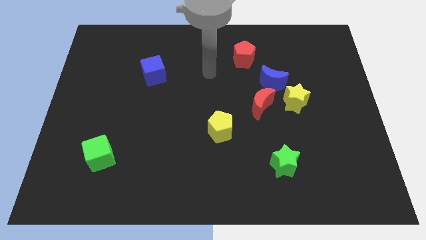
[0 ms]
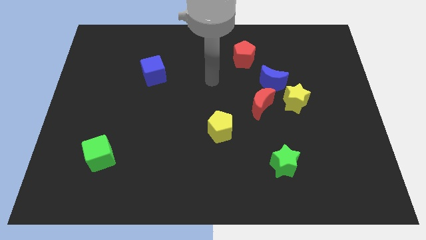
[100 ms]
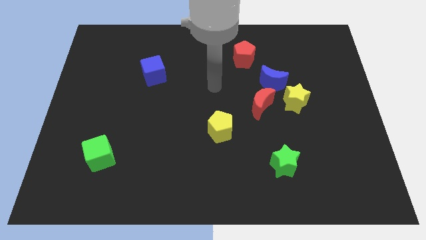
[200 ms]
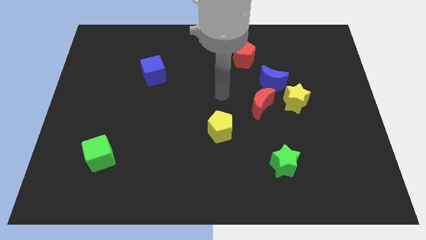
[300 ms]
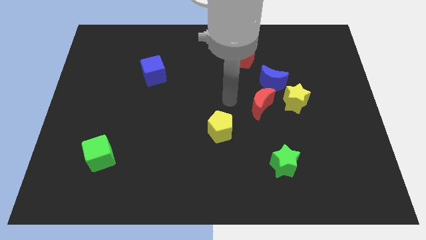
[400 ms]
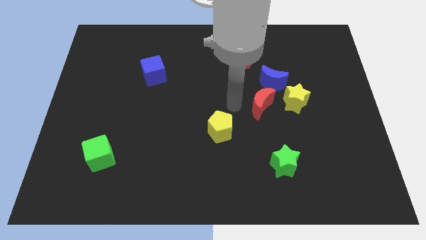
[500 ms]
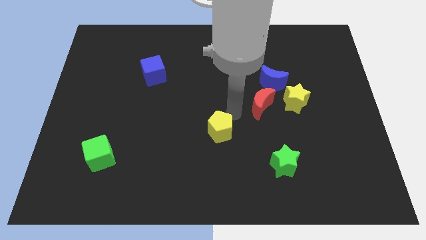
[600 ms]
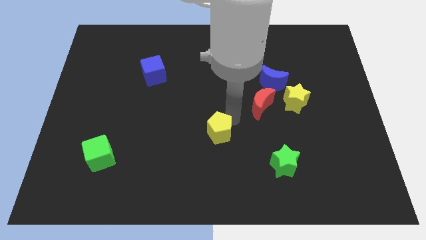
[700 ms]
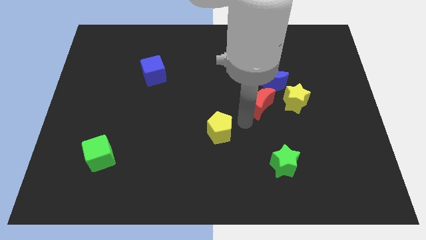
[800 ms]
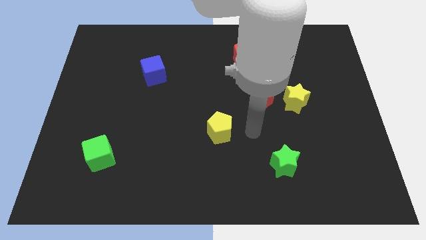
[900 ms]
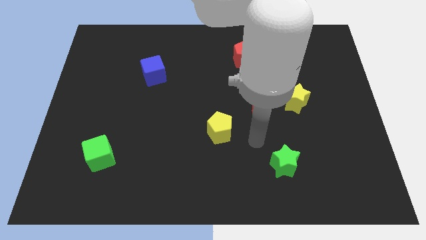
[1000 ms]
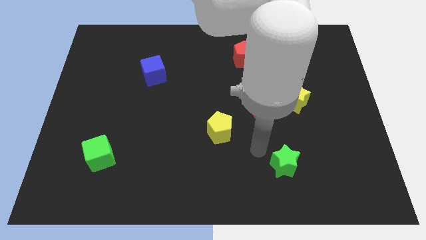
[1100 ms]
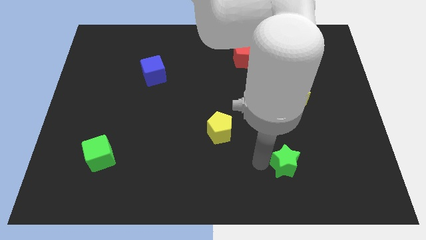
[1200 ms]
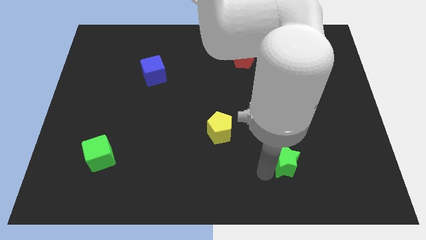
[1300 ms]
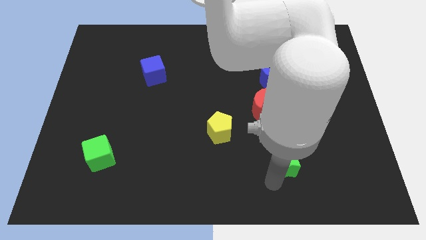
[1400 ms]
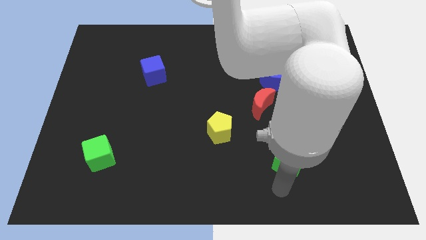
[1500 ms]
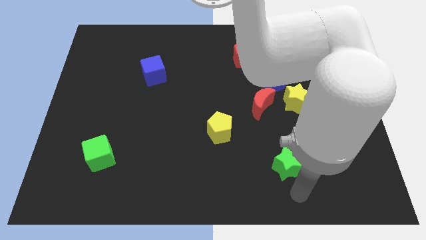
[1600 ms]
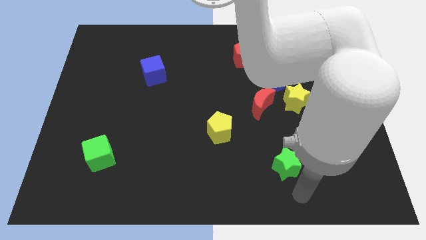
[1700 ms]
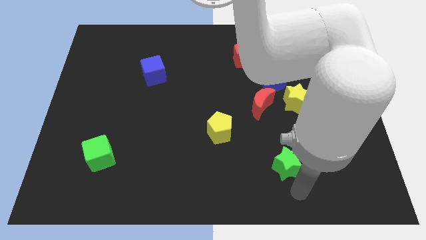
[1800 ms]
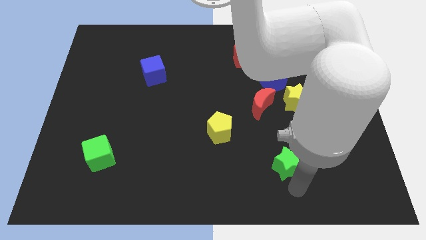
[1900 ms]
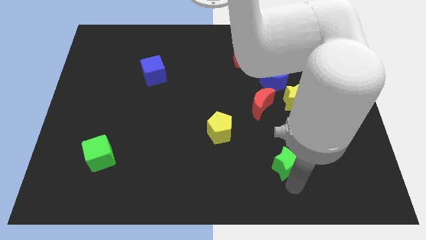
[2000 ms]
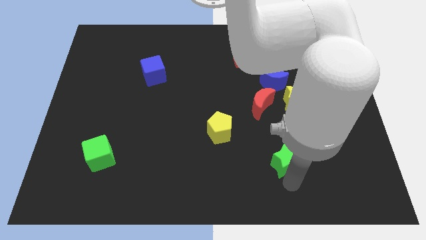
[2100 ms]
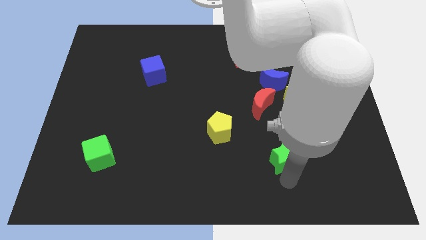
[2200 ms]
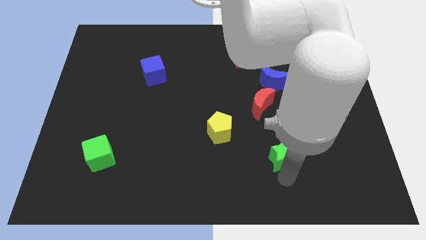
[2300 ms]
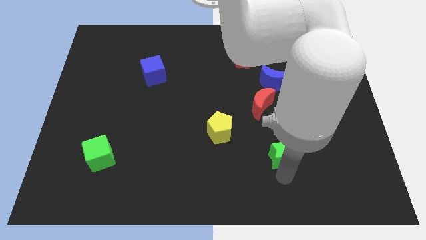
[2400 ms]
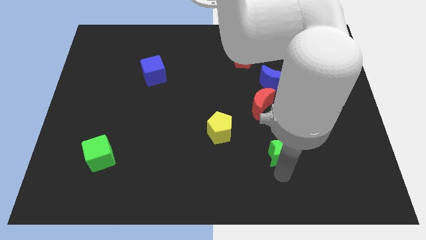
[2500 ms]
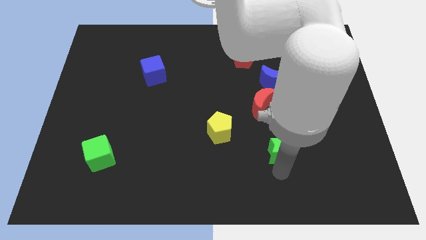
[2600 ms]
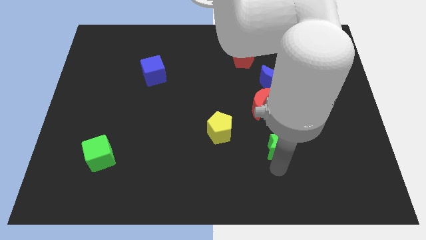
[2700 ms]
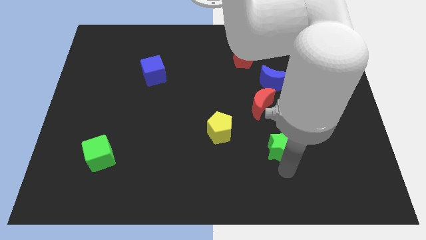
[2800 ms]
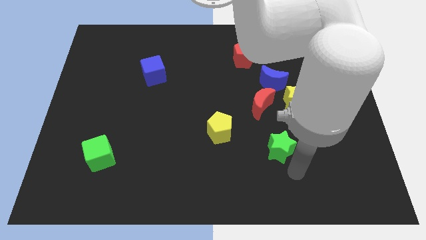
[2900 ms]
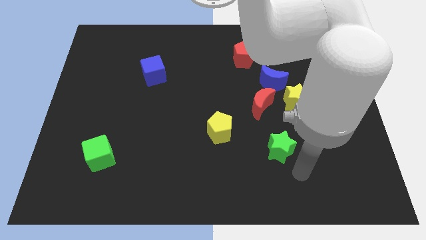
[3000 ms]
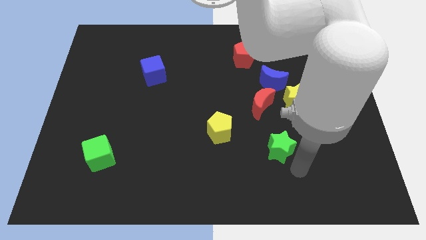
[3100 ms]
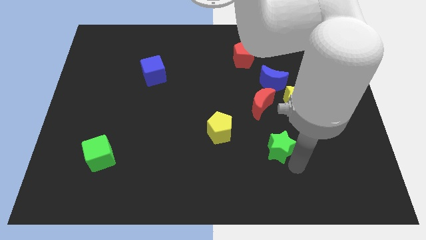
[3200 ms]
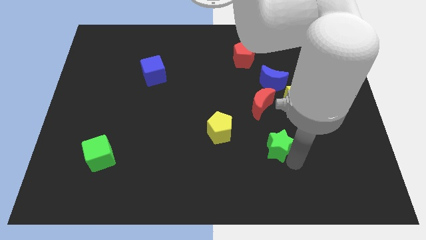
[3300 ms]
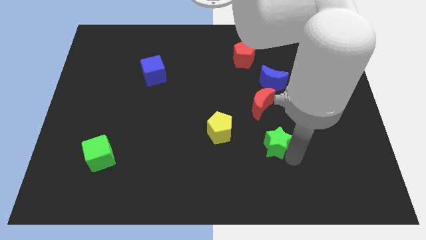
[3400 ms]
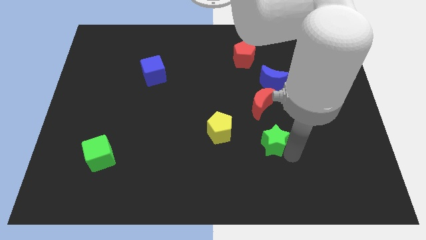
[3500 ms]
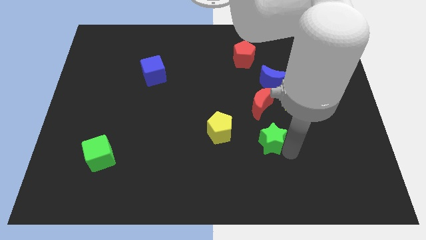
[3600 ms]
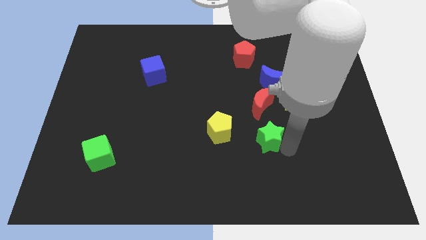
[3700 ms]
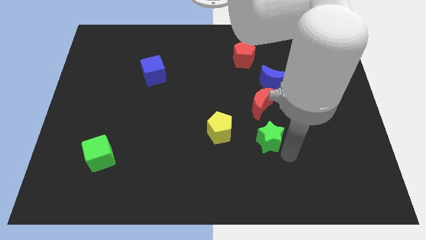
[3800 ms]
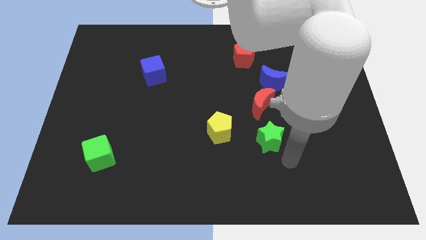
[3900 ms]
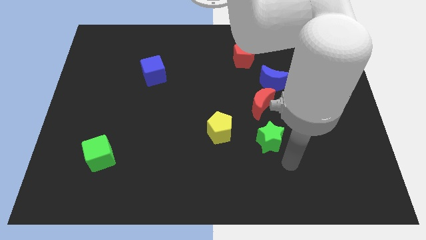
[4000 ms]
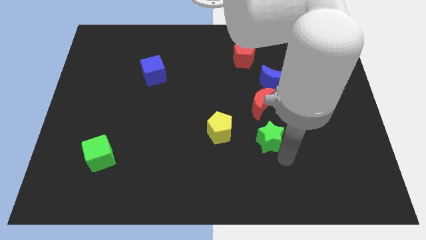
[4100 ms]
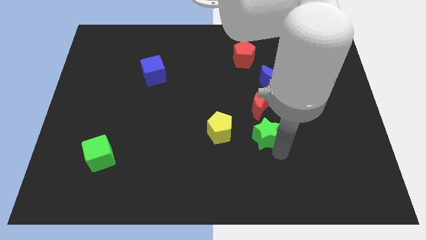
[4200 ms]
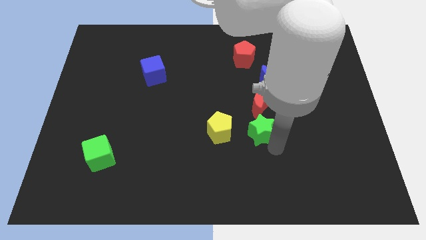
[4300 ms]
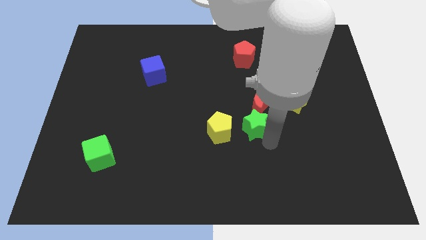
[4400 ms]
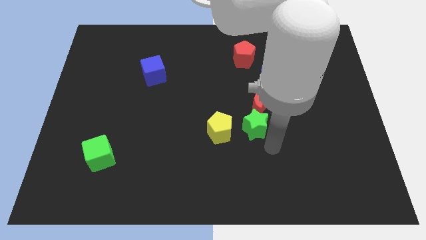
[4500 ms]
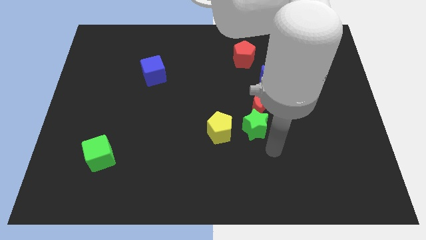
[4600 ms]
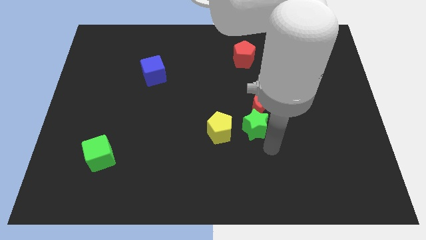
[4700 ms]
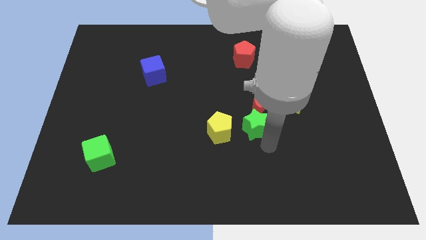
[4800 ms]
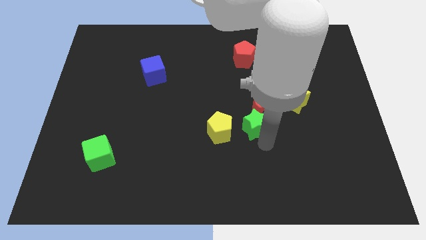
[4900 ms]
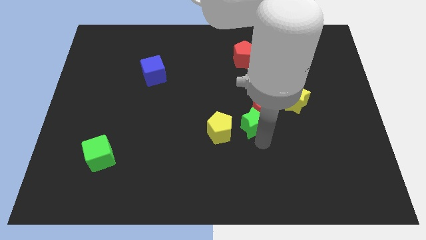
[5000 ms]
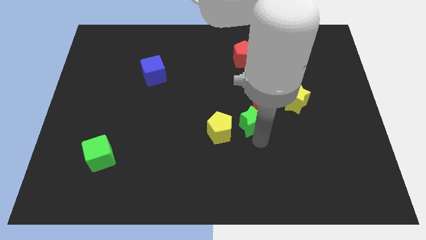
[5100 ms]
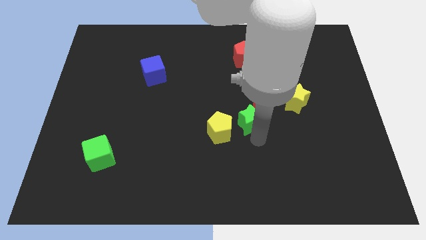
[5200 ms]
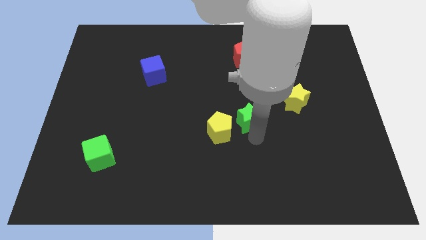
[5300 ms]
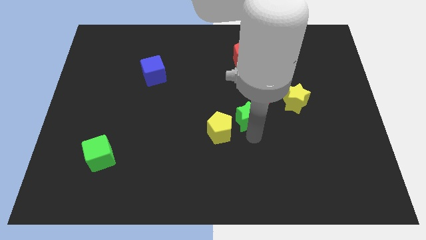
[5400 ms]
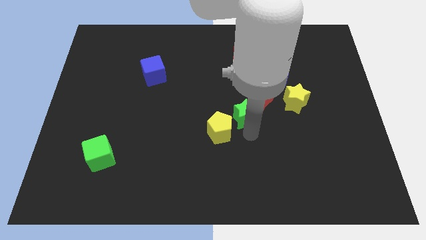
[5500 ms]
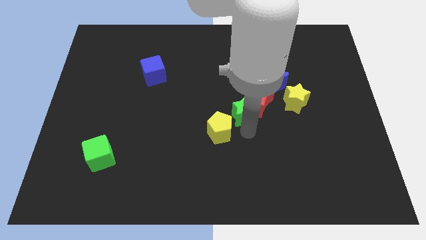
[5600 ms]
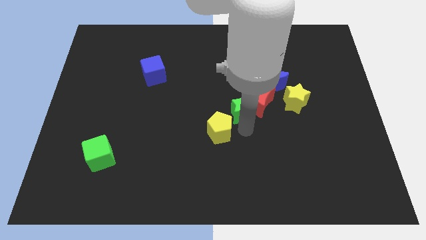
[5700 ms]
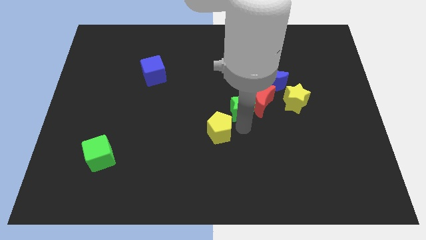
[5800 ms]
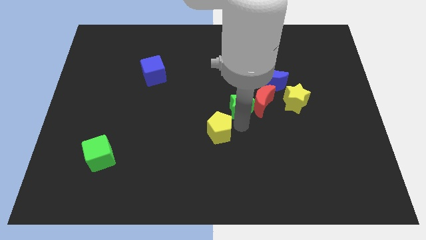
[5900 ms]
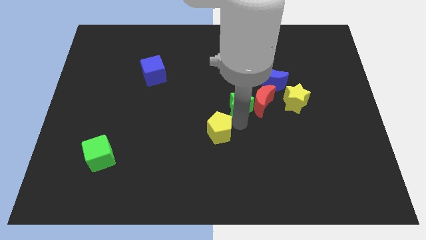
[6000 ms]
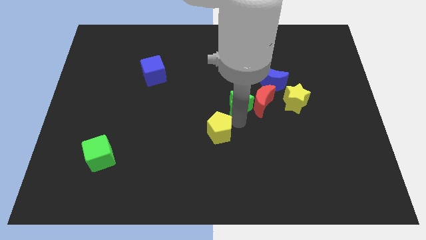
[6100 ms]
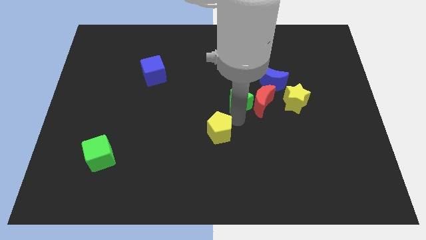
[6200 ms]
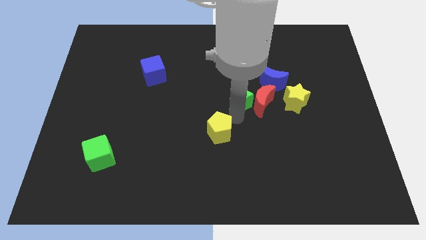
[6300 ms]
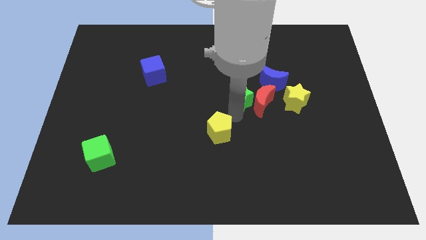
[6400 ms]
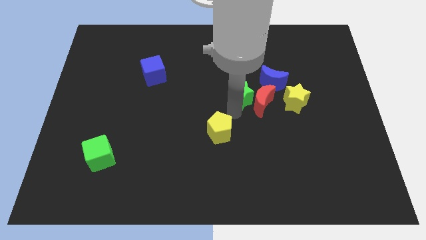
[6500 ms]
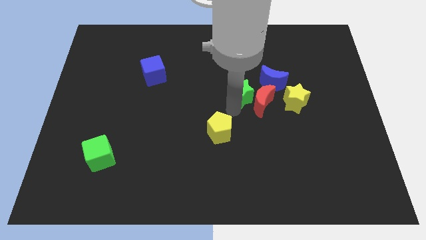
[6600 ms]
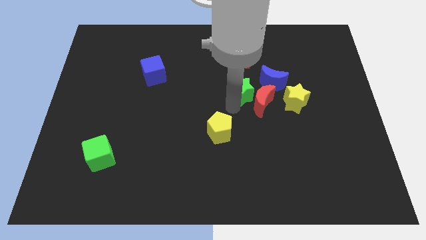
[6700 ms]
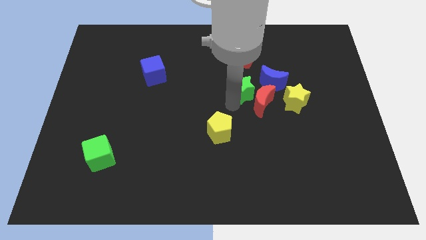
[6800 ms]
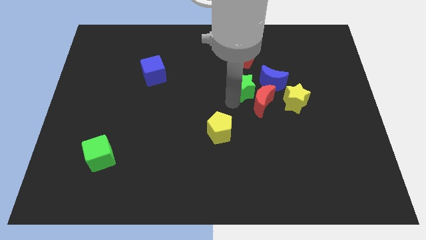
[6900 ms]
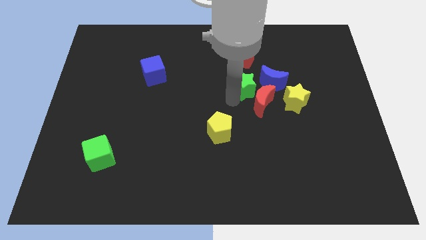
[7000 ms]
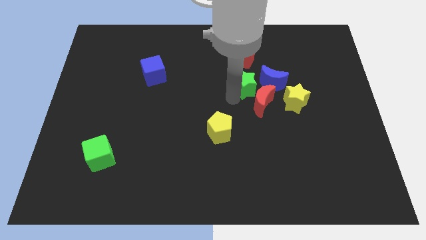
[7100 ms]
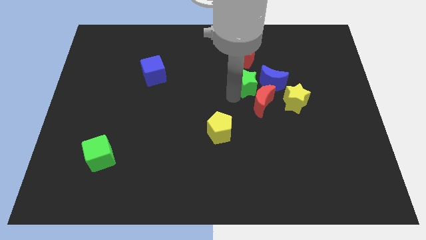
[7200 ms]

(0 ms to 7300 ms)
move the green star upwards
